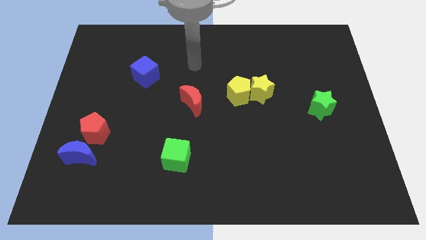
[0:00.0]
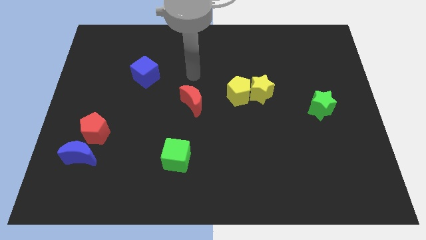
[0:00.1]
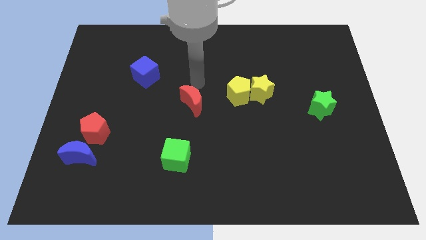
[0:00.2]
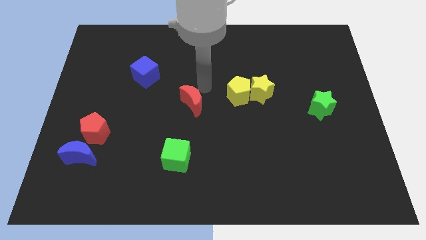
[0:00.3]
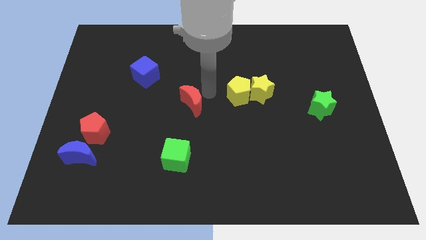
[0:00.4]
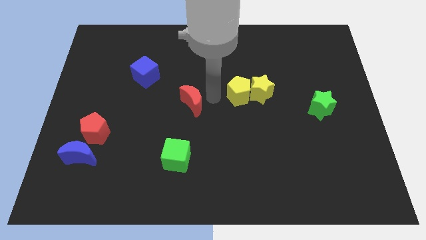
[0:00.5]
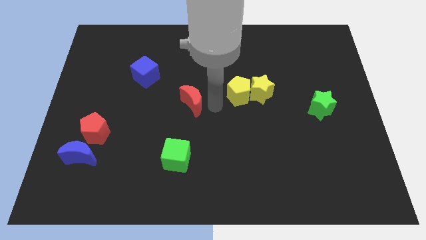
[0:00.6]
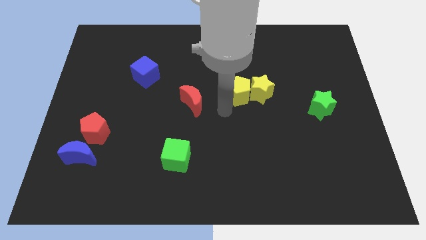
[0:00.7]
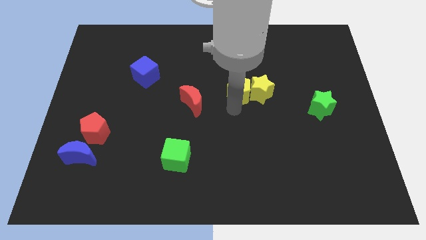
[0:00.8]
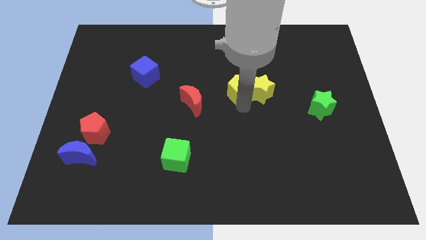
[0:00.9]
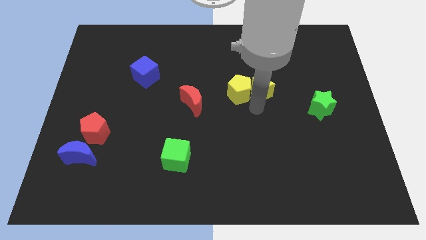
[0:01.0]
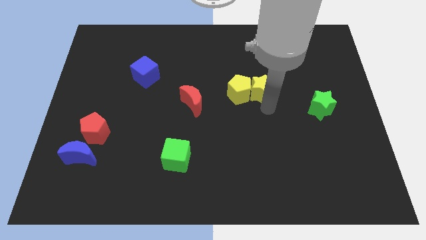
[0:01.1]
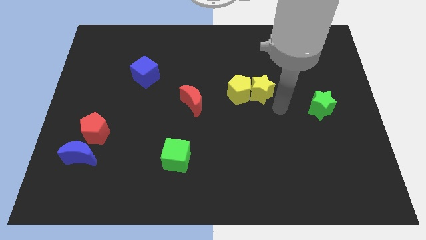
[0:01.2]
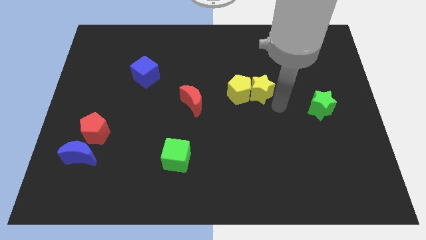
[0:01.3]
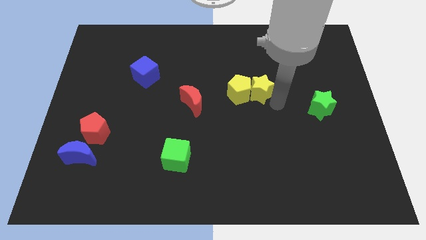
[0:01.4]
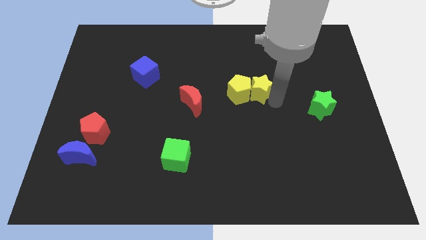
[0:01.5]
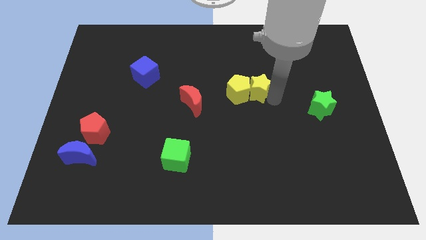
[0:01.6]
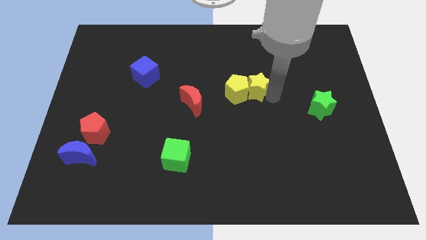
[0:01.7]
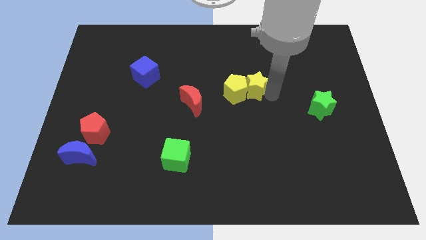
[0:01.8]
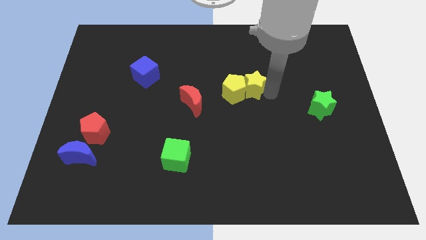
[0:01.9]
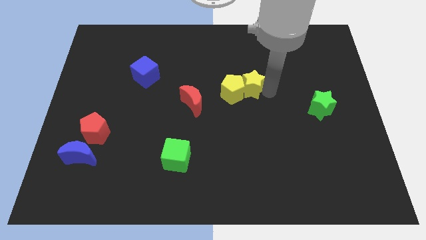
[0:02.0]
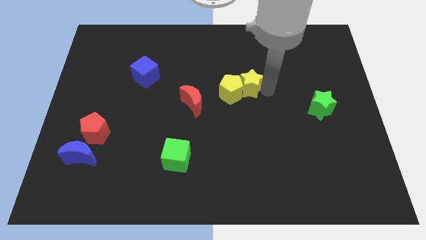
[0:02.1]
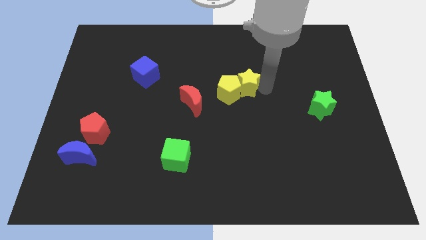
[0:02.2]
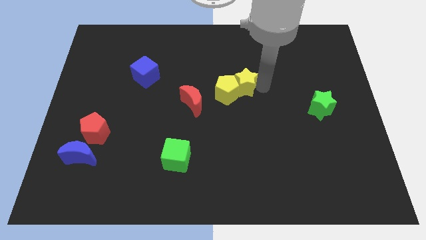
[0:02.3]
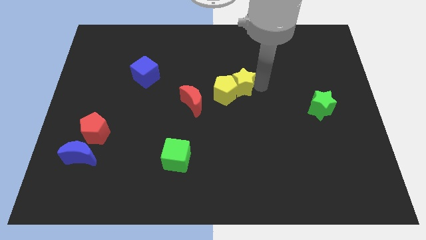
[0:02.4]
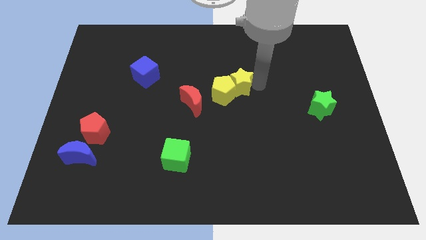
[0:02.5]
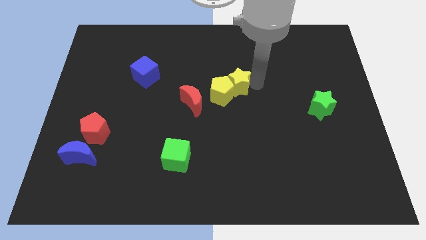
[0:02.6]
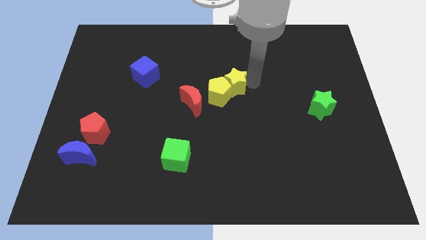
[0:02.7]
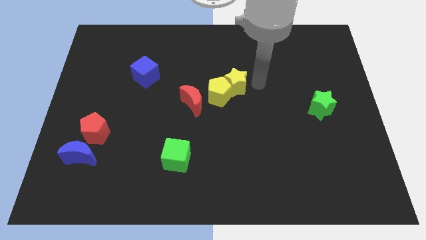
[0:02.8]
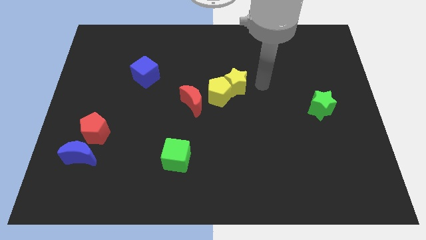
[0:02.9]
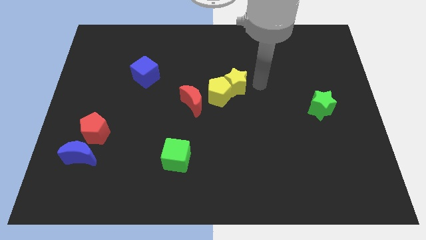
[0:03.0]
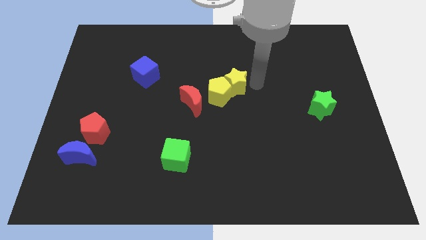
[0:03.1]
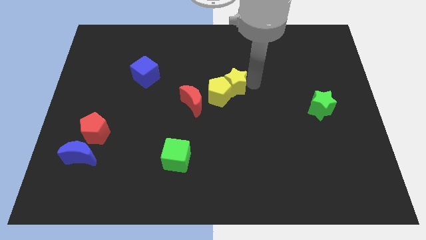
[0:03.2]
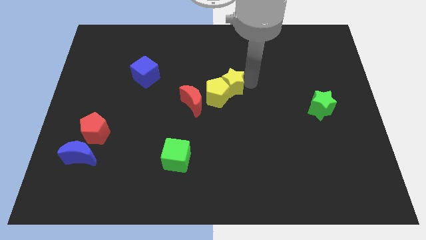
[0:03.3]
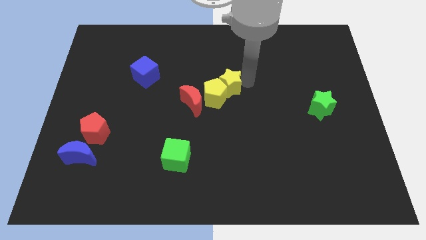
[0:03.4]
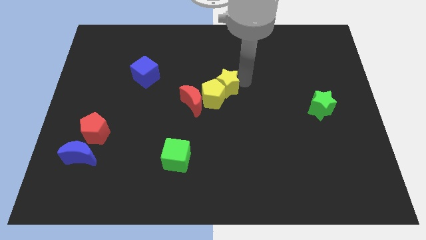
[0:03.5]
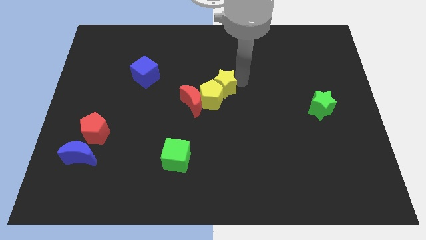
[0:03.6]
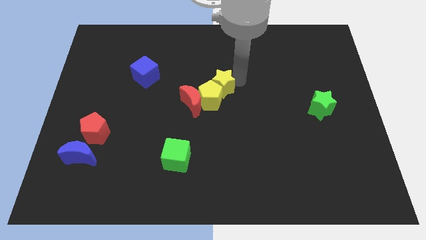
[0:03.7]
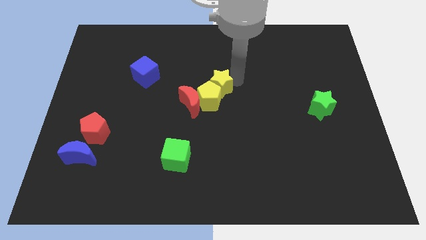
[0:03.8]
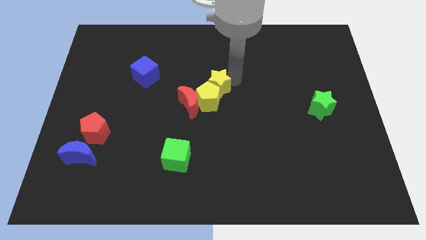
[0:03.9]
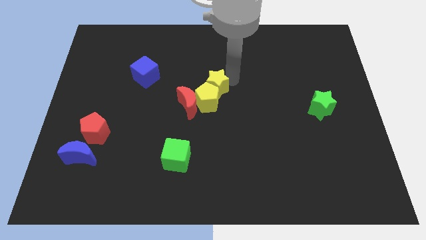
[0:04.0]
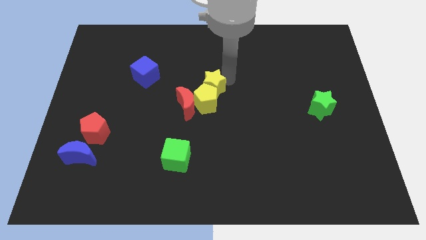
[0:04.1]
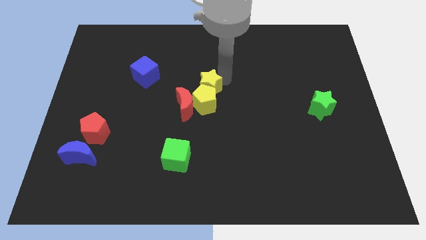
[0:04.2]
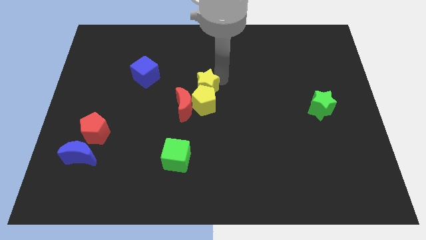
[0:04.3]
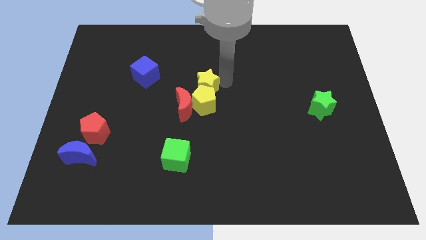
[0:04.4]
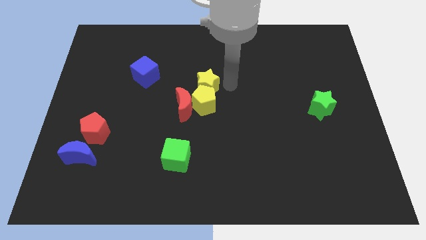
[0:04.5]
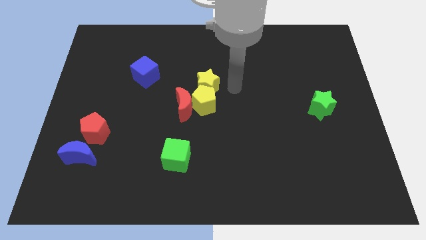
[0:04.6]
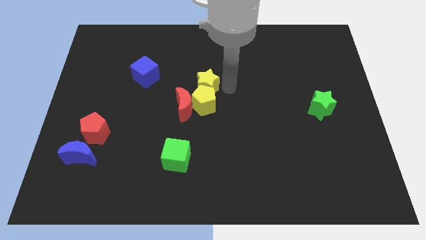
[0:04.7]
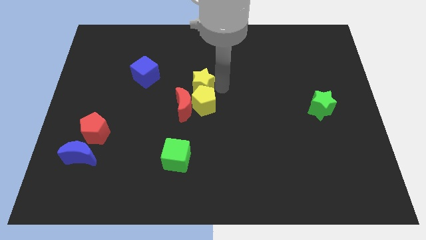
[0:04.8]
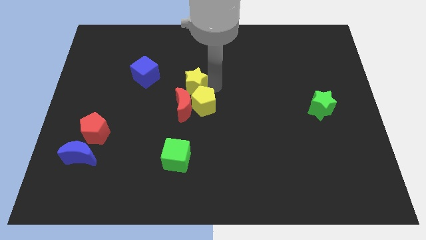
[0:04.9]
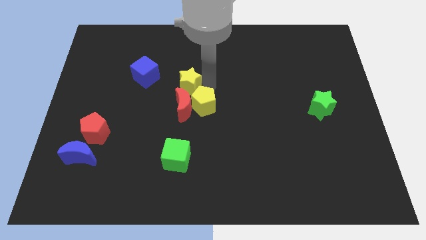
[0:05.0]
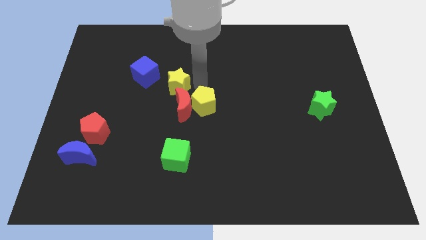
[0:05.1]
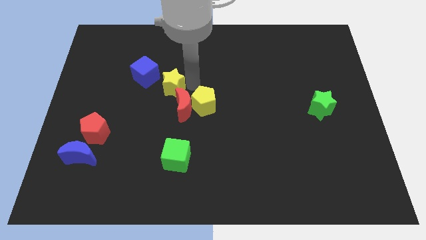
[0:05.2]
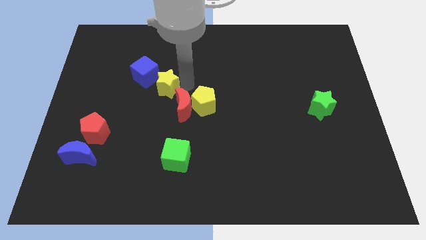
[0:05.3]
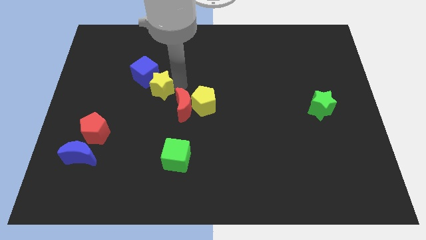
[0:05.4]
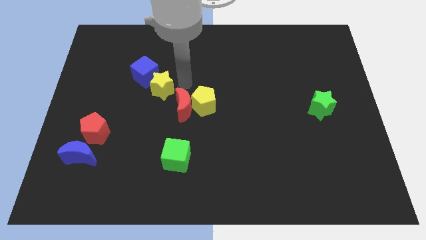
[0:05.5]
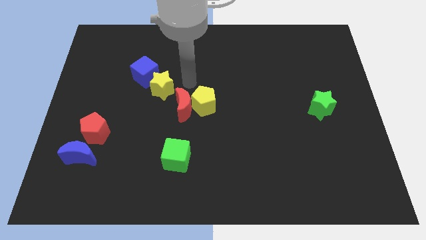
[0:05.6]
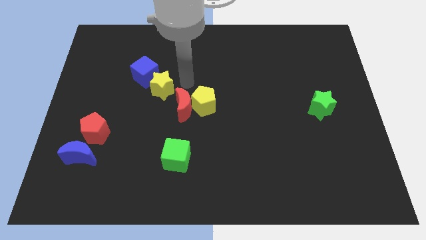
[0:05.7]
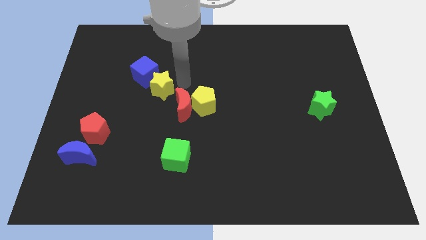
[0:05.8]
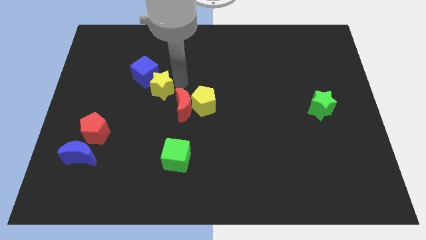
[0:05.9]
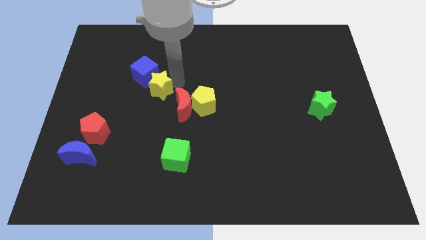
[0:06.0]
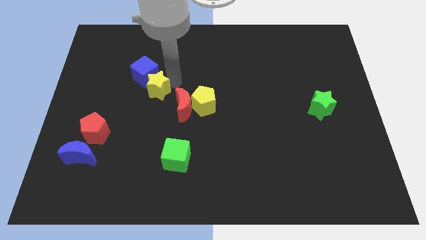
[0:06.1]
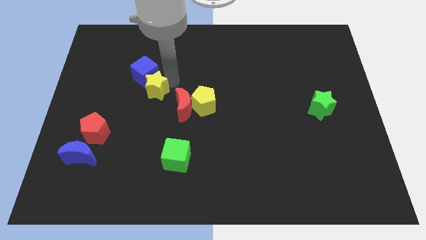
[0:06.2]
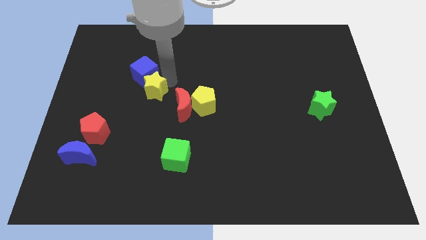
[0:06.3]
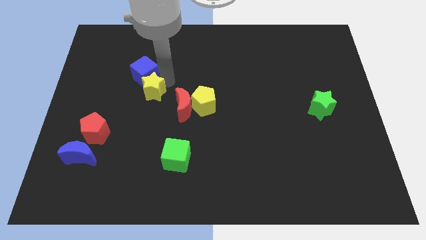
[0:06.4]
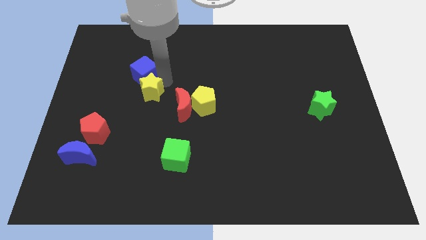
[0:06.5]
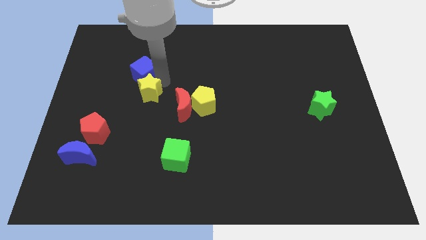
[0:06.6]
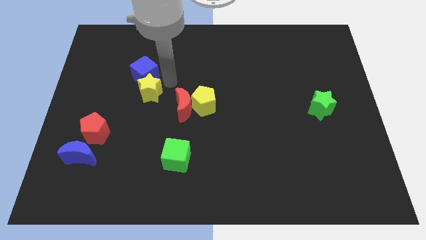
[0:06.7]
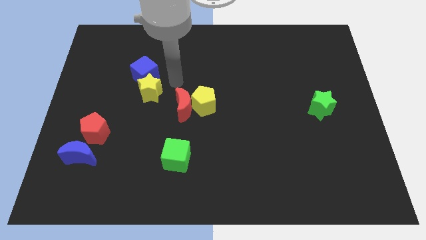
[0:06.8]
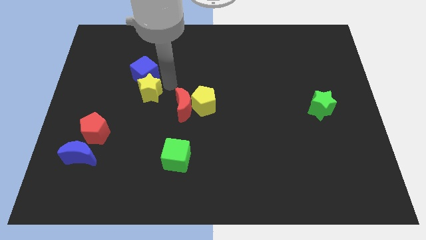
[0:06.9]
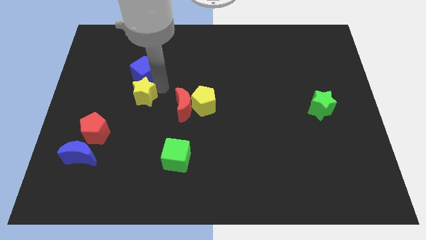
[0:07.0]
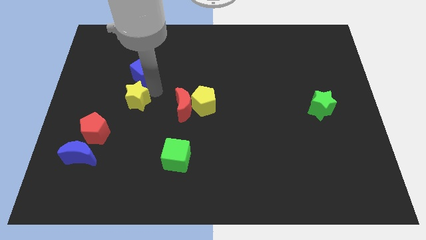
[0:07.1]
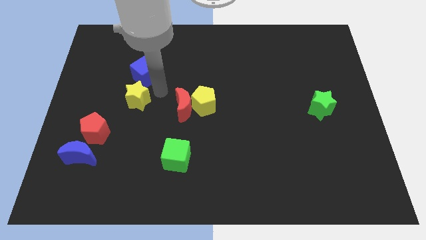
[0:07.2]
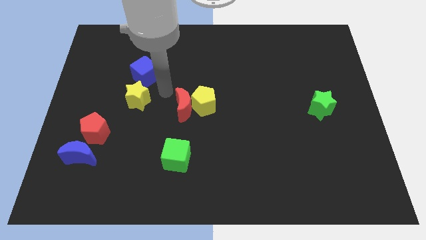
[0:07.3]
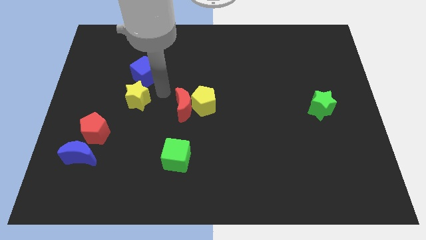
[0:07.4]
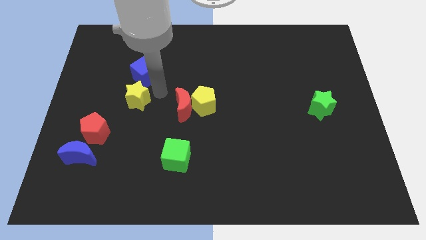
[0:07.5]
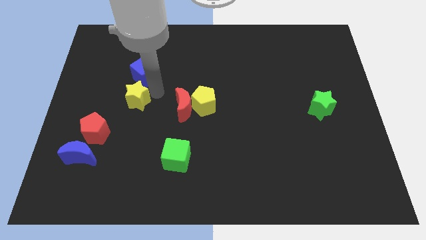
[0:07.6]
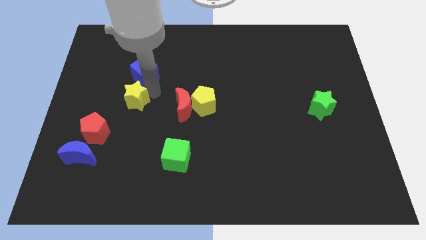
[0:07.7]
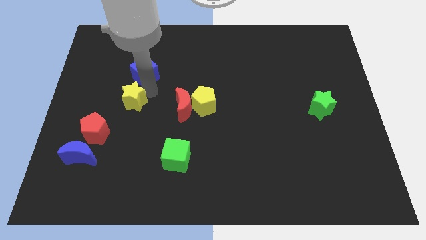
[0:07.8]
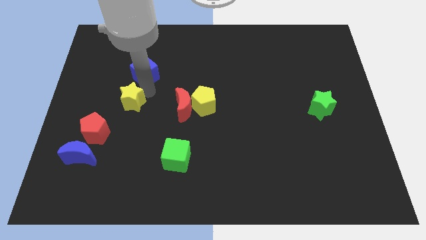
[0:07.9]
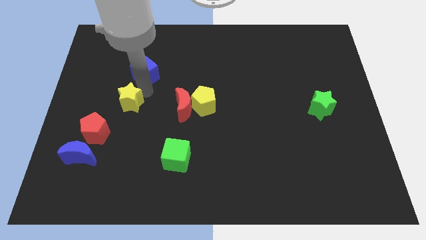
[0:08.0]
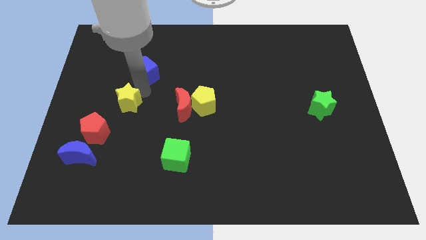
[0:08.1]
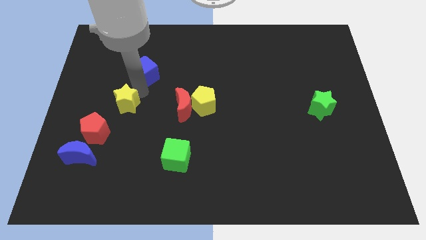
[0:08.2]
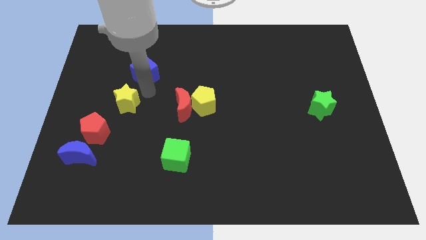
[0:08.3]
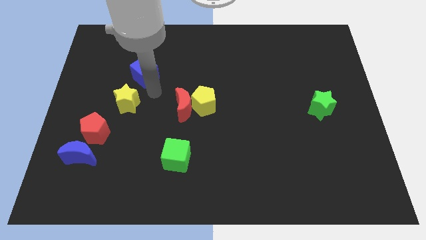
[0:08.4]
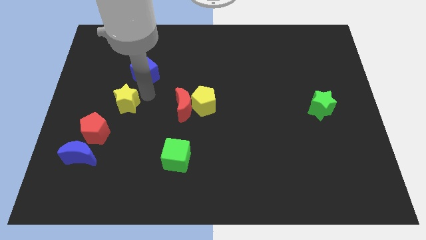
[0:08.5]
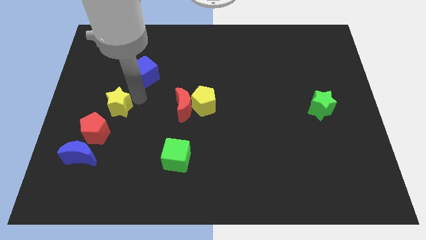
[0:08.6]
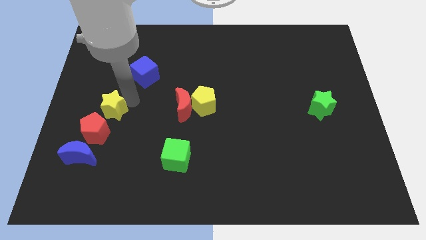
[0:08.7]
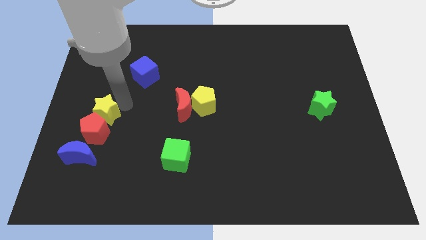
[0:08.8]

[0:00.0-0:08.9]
put the yellow star above the blue moon
